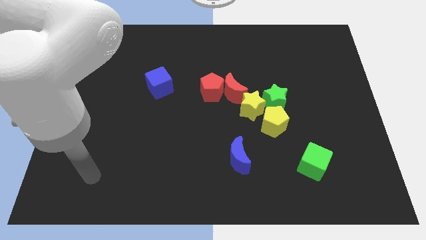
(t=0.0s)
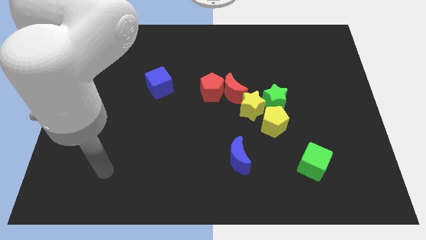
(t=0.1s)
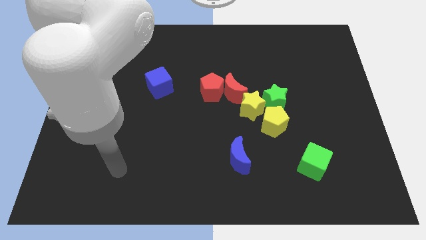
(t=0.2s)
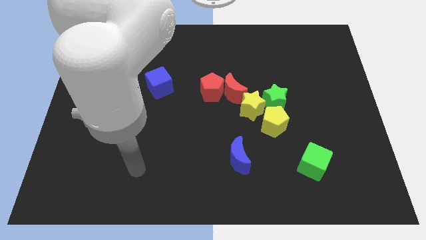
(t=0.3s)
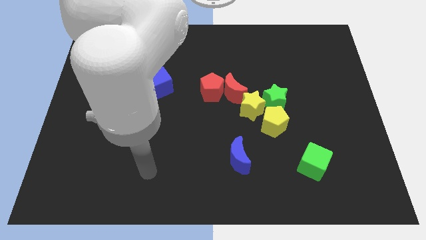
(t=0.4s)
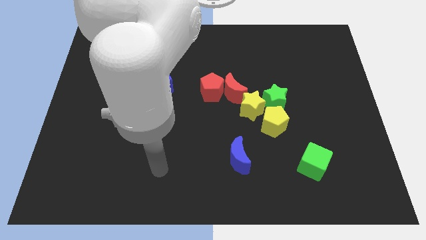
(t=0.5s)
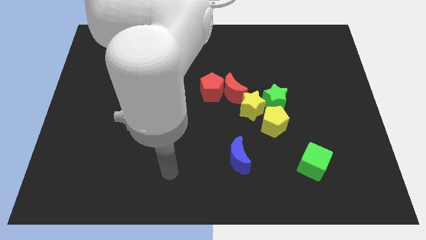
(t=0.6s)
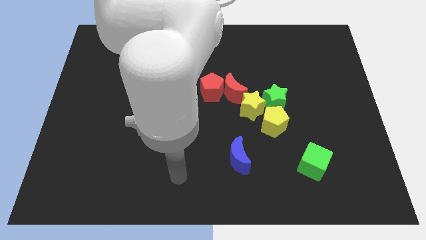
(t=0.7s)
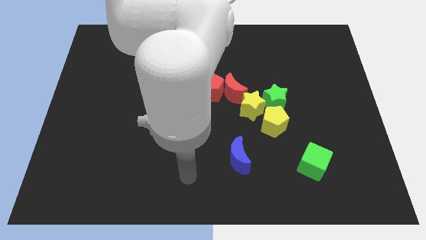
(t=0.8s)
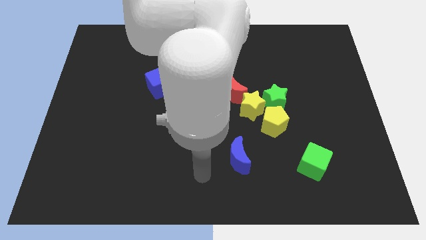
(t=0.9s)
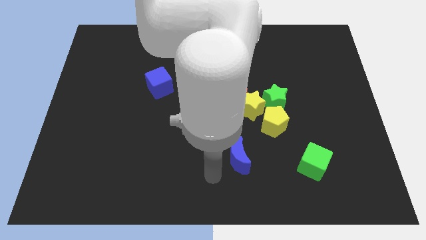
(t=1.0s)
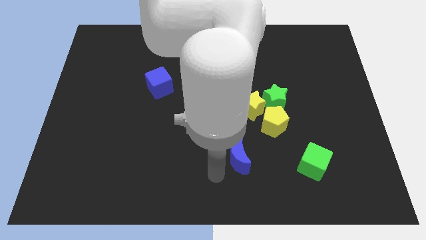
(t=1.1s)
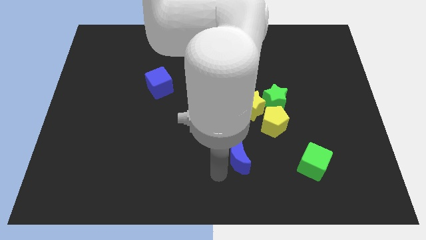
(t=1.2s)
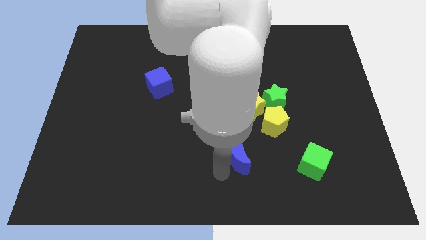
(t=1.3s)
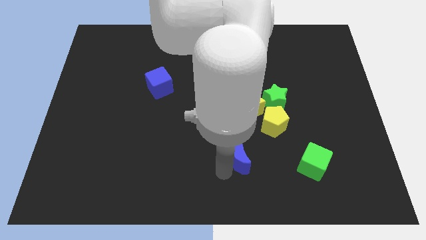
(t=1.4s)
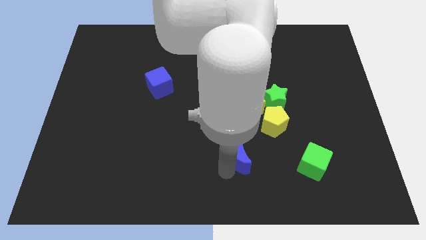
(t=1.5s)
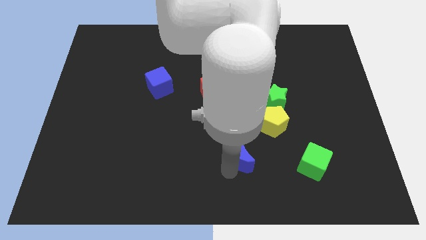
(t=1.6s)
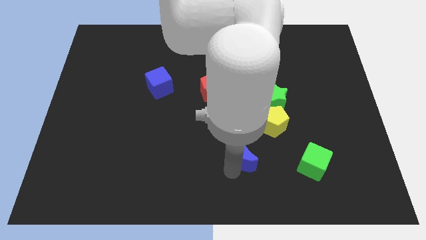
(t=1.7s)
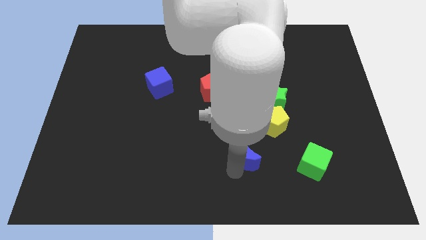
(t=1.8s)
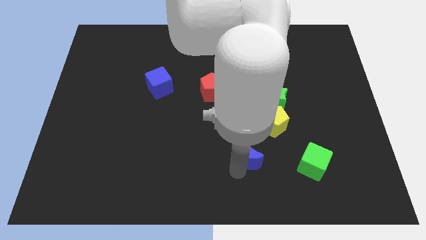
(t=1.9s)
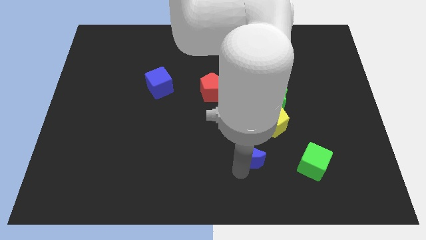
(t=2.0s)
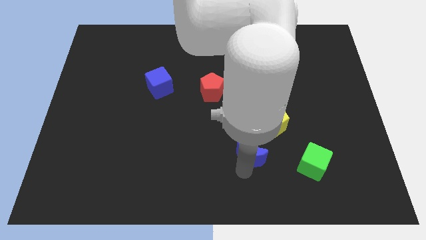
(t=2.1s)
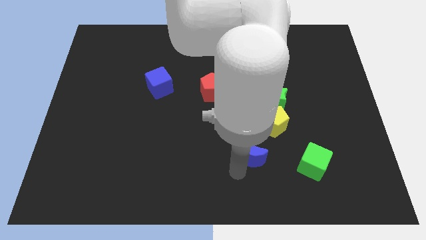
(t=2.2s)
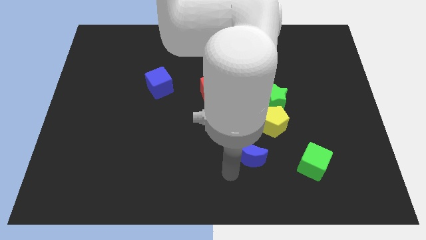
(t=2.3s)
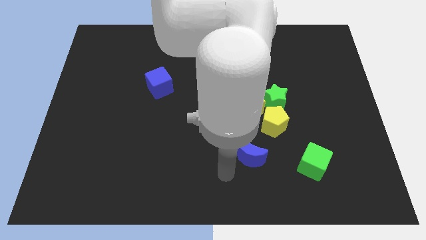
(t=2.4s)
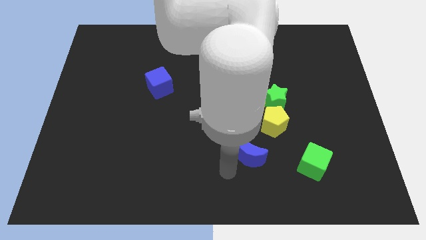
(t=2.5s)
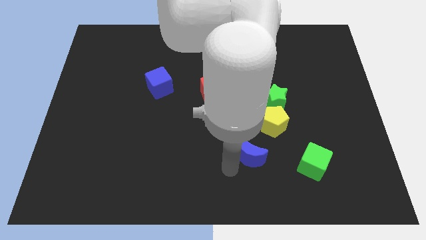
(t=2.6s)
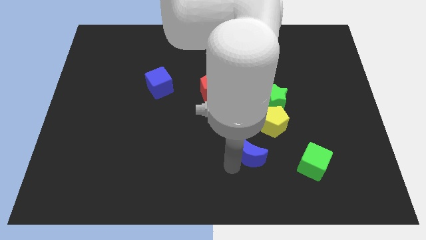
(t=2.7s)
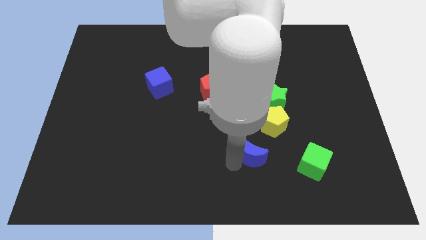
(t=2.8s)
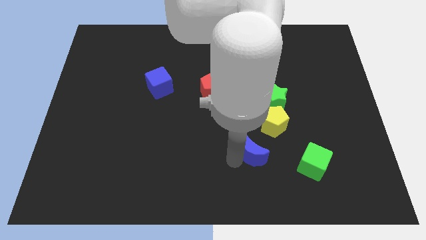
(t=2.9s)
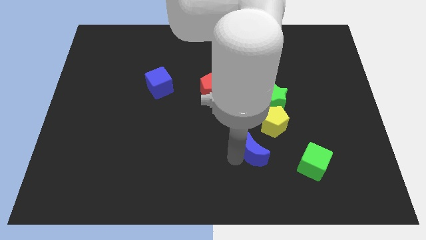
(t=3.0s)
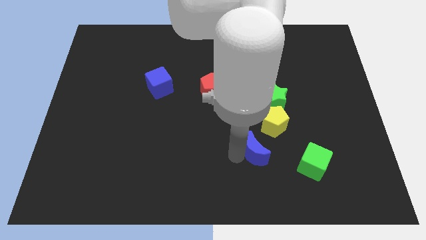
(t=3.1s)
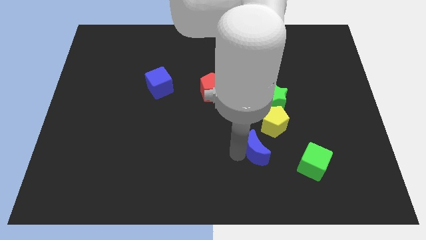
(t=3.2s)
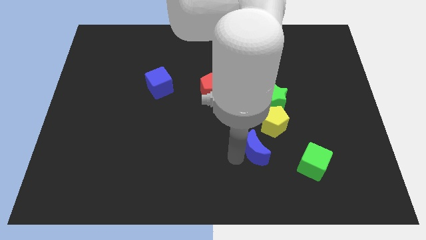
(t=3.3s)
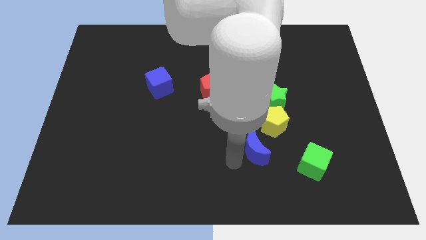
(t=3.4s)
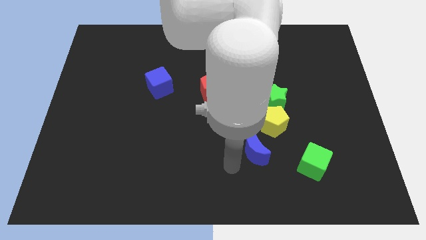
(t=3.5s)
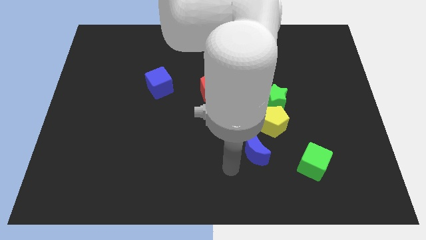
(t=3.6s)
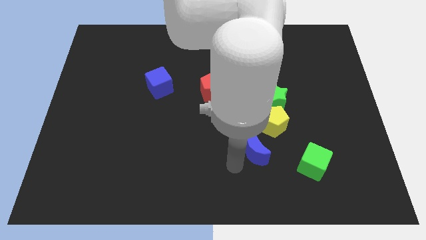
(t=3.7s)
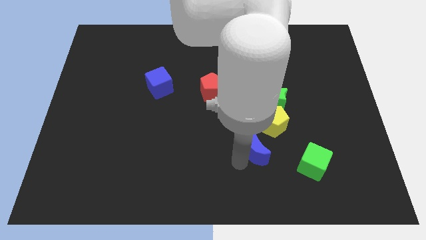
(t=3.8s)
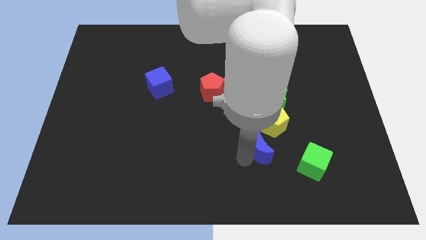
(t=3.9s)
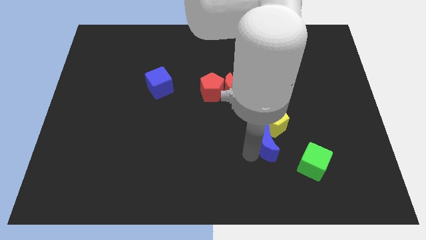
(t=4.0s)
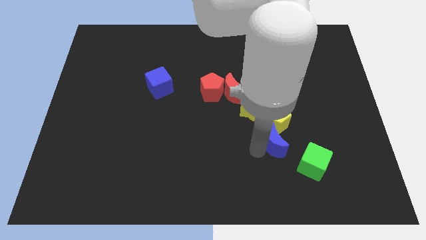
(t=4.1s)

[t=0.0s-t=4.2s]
slide the blue moon up and then right somewhat

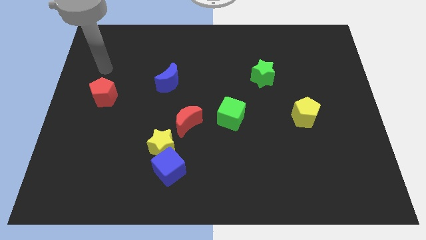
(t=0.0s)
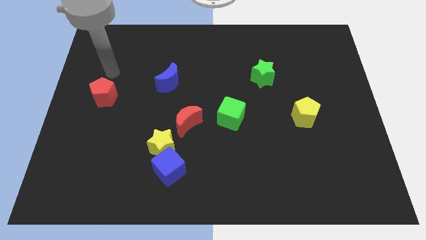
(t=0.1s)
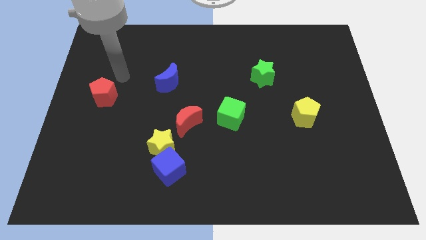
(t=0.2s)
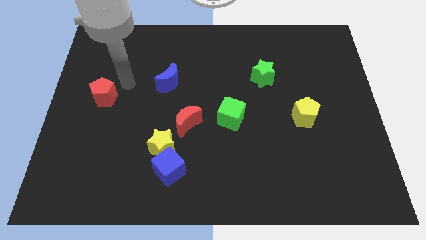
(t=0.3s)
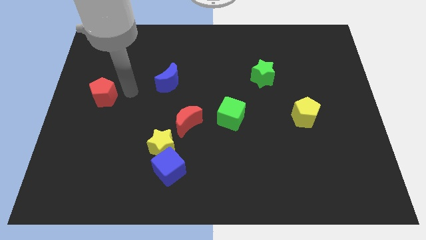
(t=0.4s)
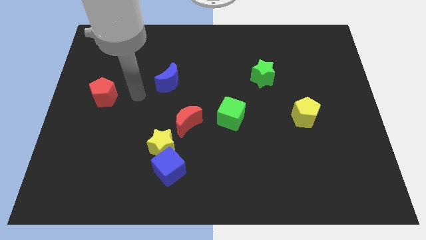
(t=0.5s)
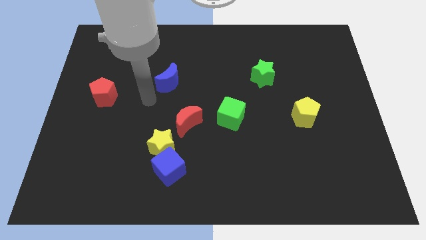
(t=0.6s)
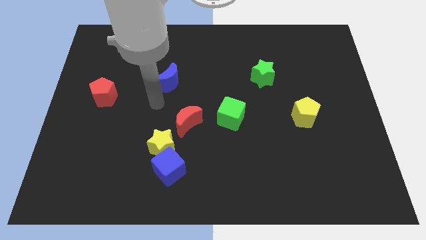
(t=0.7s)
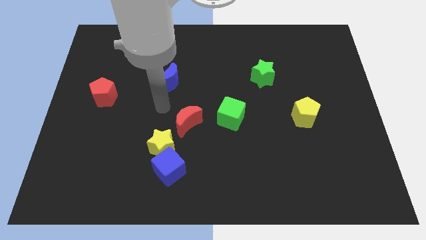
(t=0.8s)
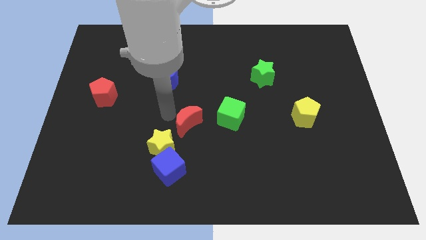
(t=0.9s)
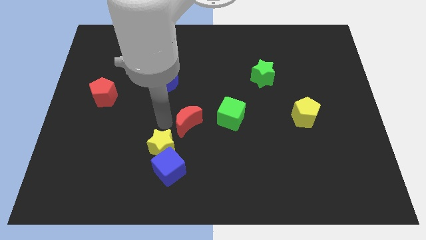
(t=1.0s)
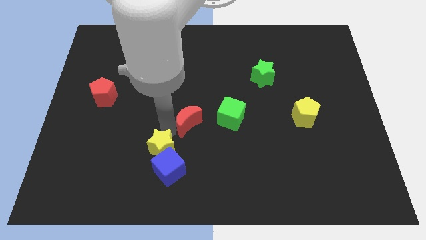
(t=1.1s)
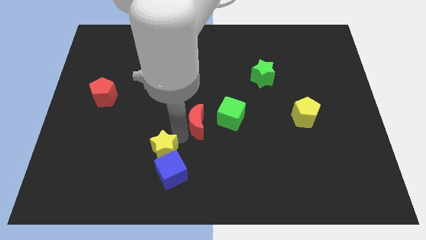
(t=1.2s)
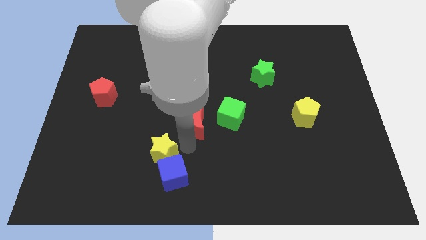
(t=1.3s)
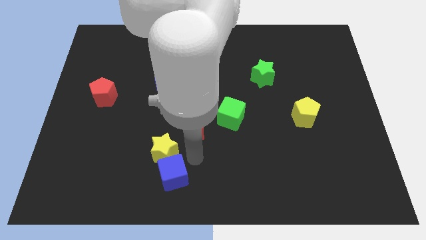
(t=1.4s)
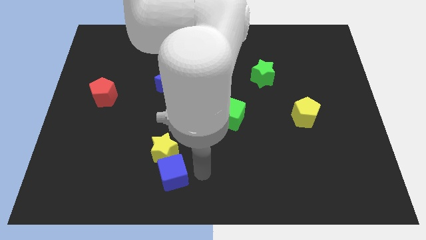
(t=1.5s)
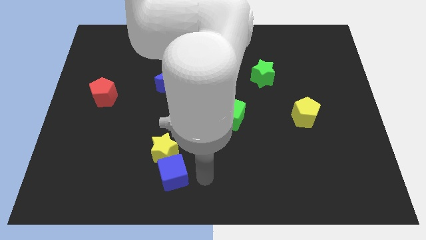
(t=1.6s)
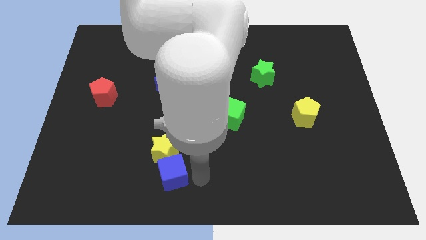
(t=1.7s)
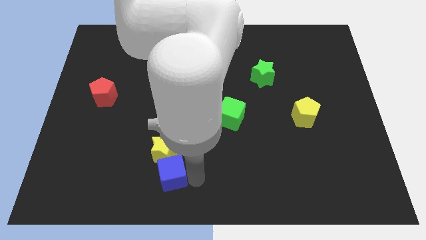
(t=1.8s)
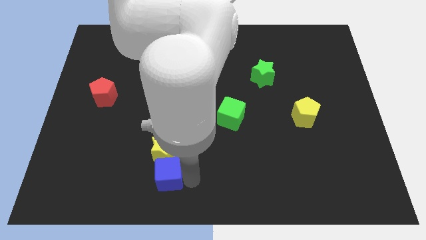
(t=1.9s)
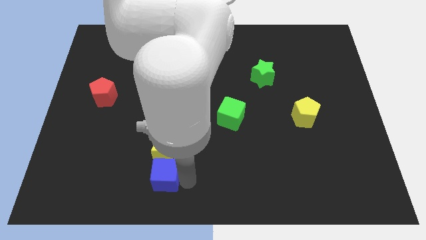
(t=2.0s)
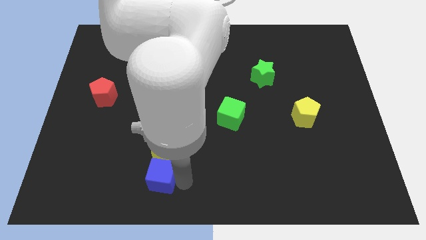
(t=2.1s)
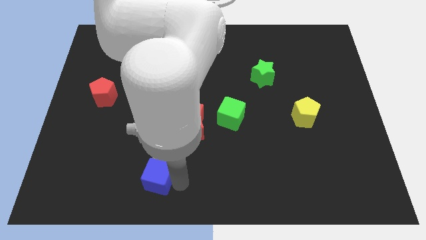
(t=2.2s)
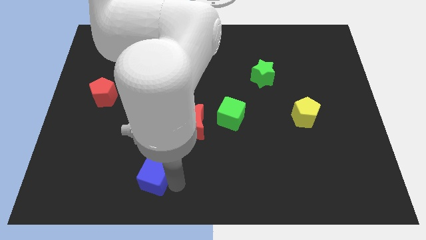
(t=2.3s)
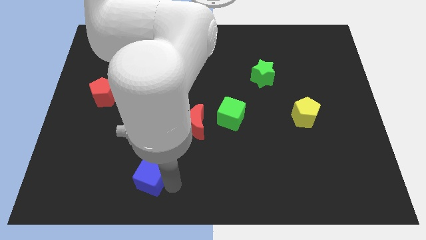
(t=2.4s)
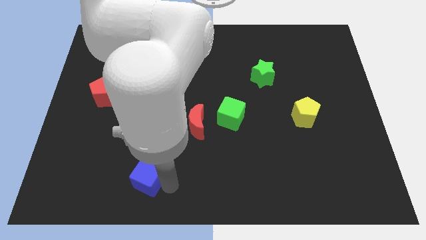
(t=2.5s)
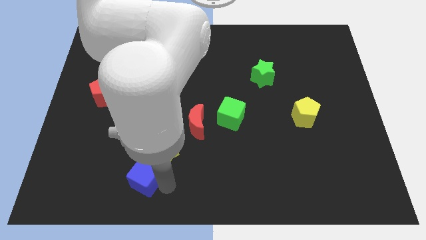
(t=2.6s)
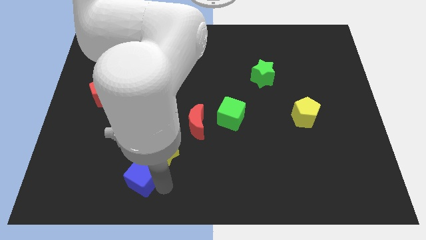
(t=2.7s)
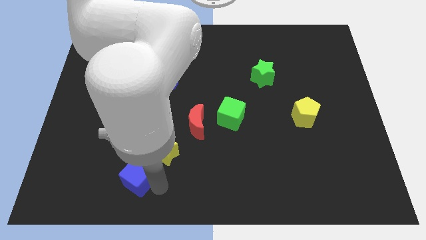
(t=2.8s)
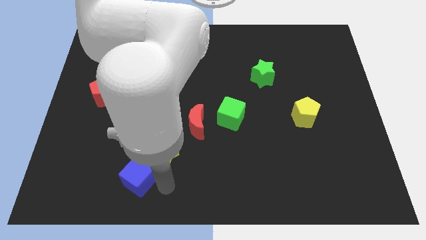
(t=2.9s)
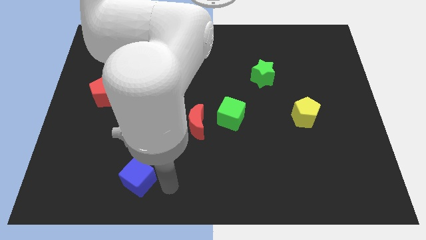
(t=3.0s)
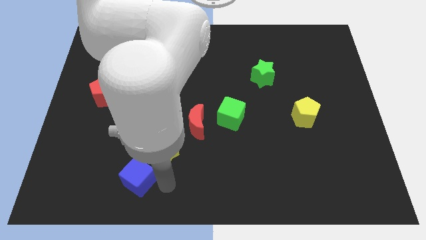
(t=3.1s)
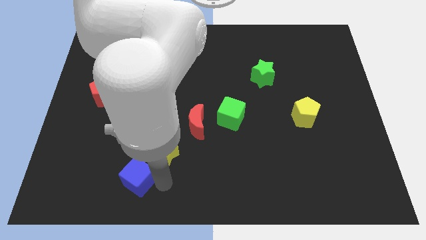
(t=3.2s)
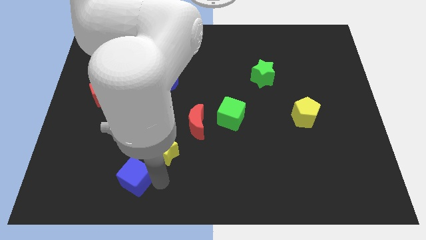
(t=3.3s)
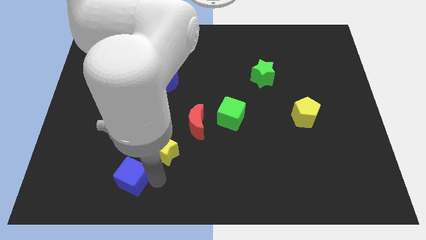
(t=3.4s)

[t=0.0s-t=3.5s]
slightly slide the blue cube left

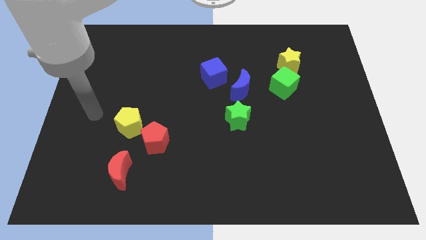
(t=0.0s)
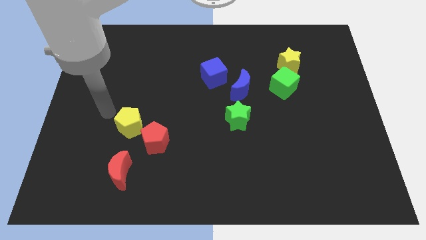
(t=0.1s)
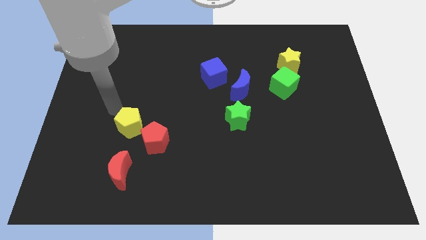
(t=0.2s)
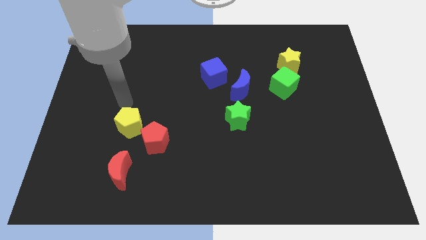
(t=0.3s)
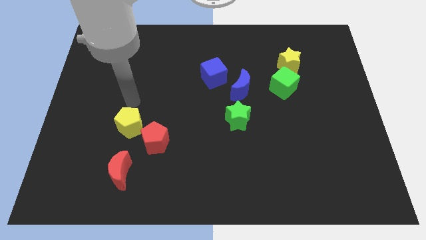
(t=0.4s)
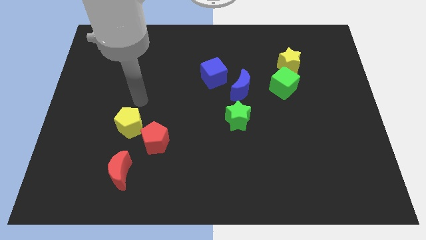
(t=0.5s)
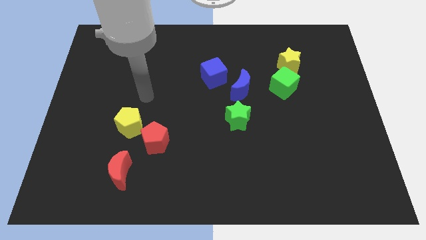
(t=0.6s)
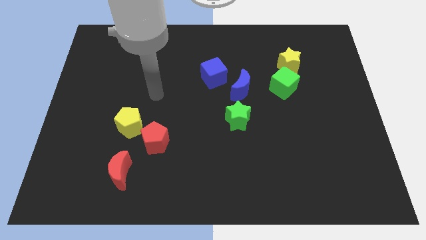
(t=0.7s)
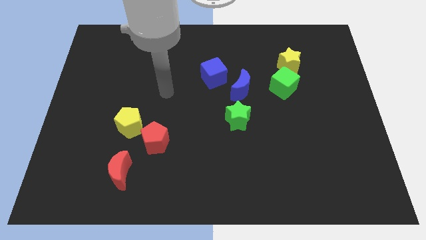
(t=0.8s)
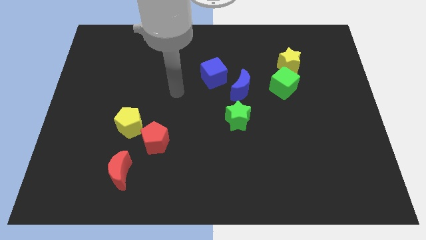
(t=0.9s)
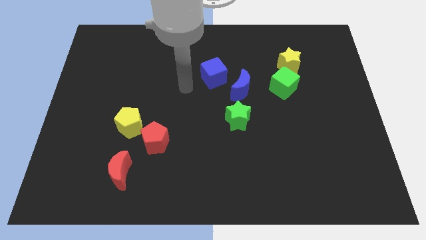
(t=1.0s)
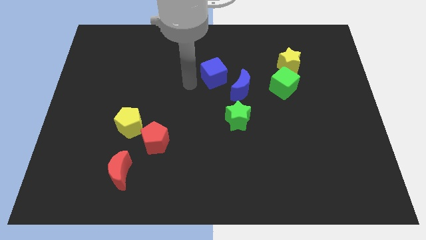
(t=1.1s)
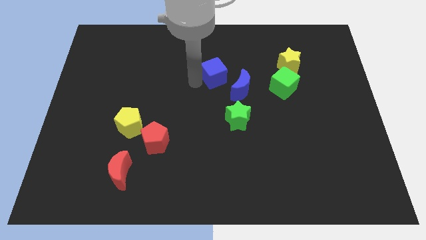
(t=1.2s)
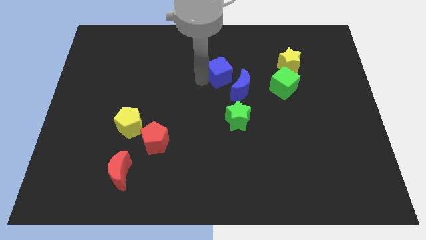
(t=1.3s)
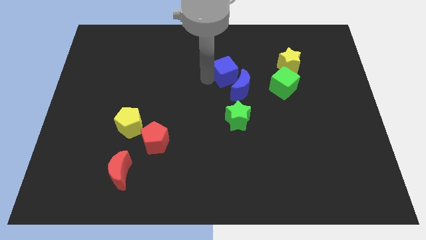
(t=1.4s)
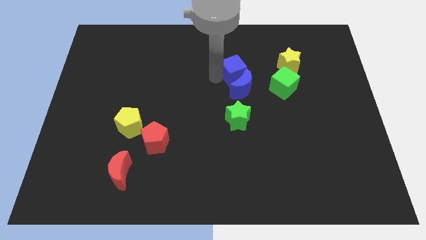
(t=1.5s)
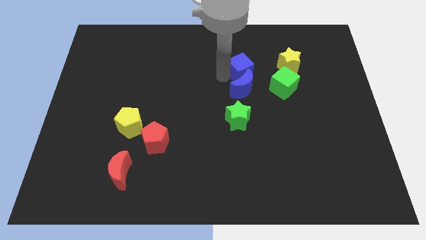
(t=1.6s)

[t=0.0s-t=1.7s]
move the blue cube right a little
